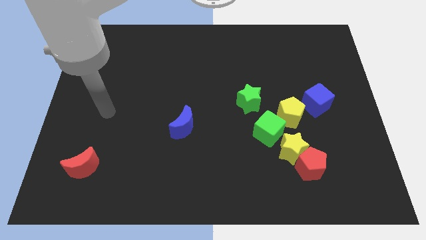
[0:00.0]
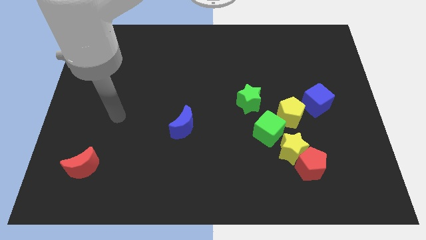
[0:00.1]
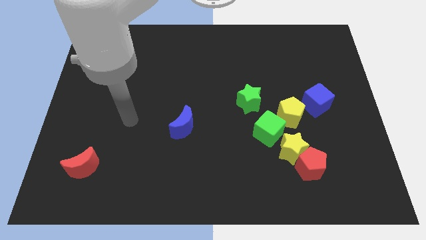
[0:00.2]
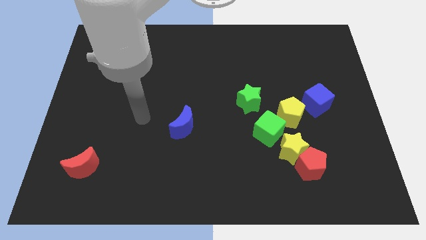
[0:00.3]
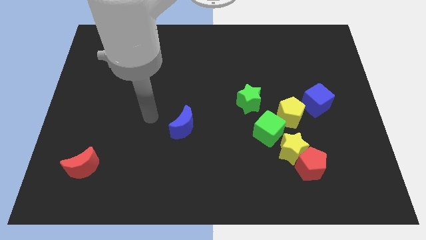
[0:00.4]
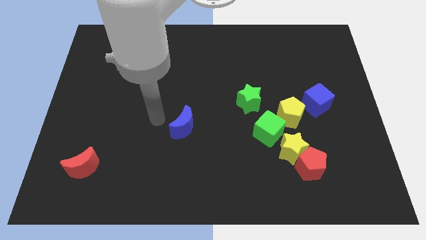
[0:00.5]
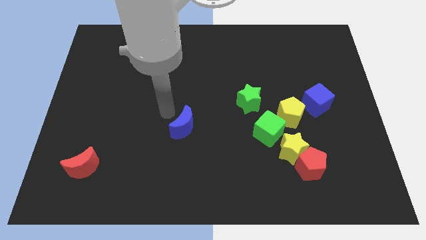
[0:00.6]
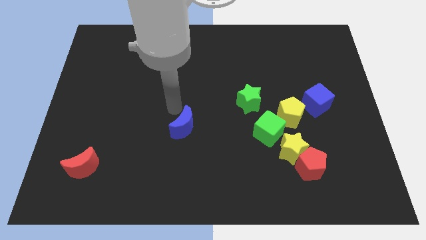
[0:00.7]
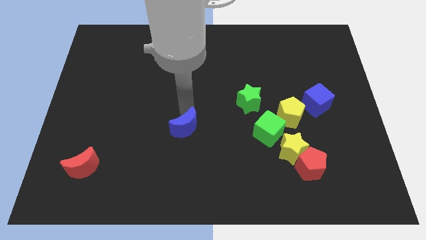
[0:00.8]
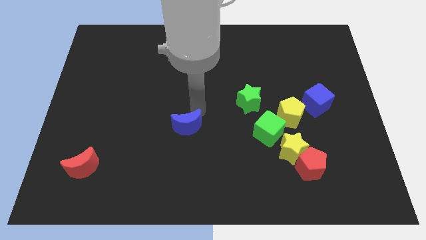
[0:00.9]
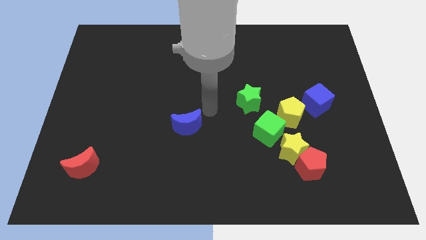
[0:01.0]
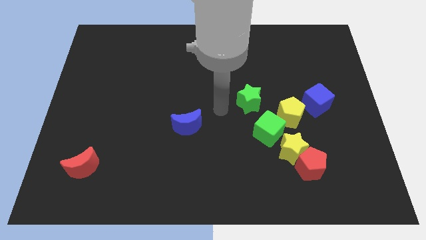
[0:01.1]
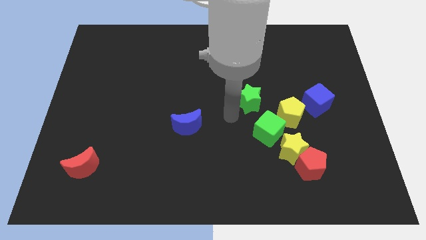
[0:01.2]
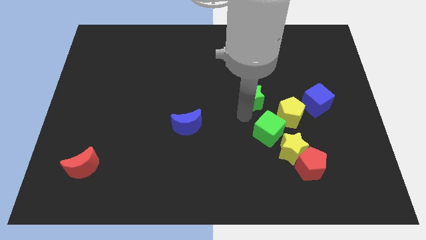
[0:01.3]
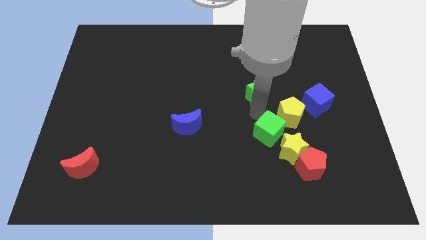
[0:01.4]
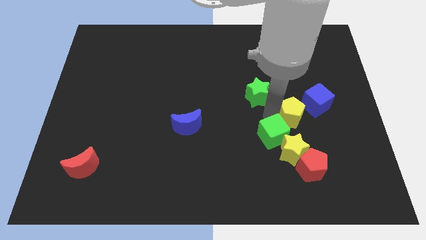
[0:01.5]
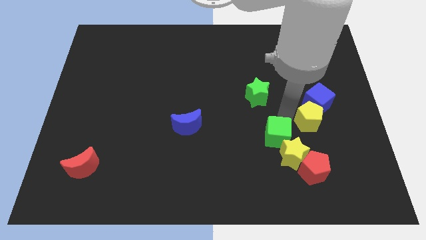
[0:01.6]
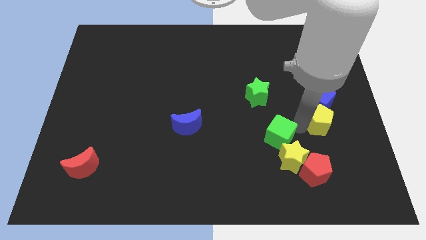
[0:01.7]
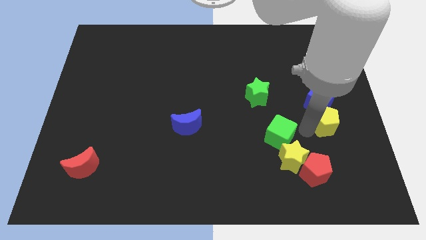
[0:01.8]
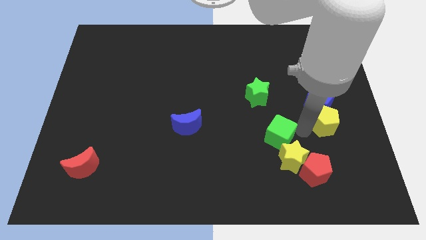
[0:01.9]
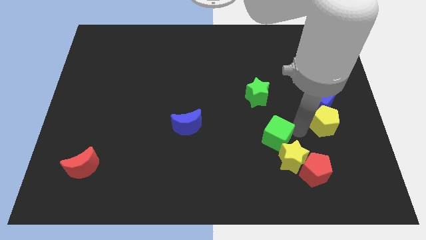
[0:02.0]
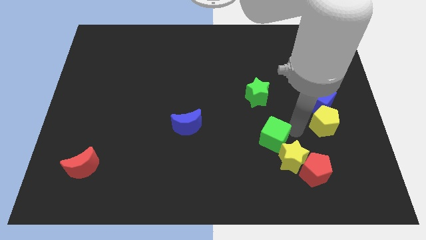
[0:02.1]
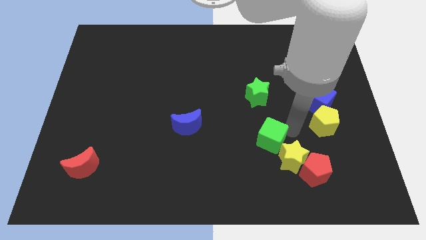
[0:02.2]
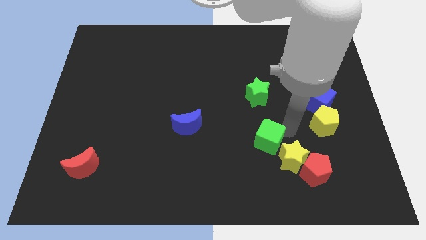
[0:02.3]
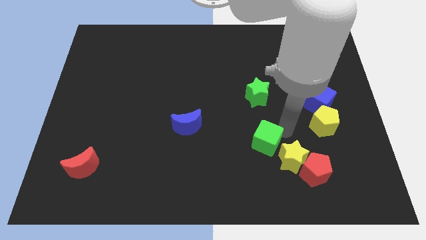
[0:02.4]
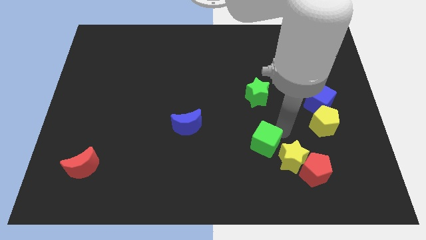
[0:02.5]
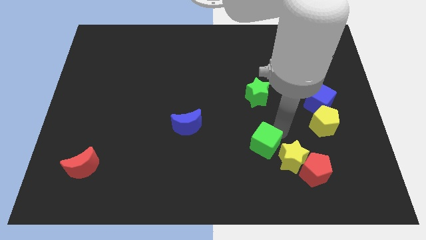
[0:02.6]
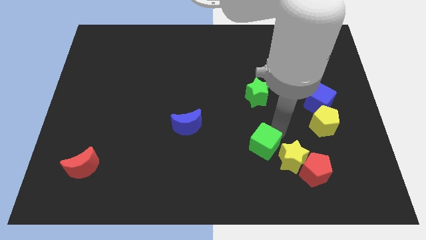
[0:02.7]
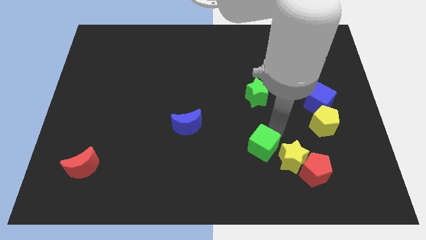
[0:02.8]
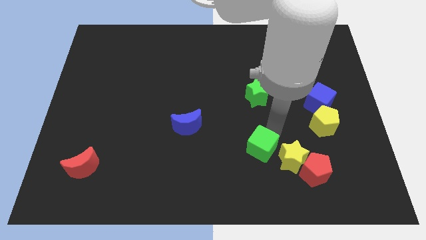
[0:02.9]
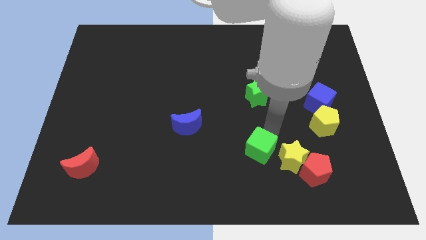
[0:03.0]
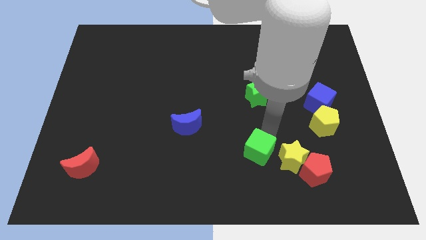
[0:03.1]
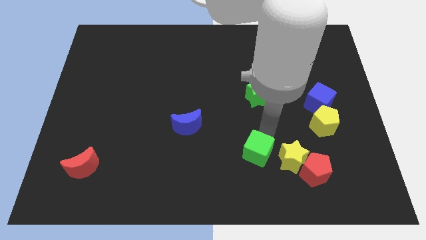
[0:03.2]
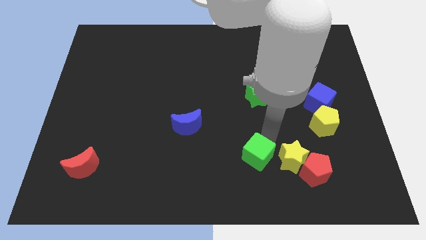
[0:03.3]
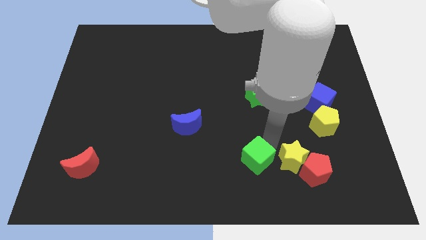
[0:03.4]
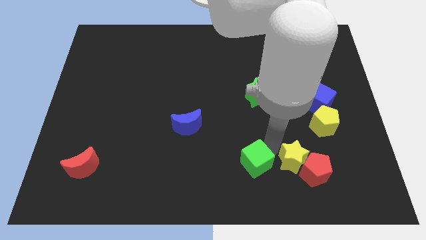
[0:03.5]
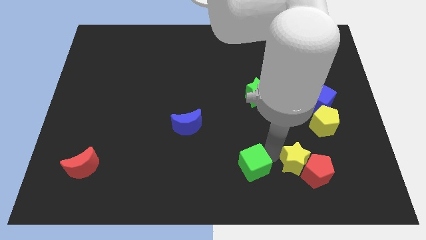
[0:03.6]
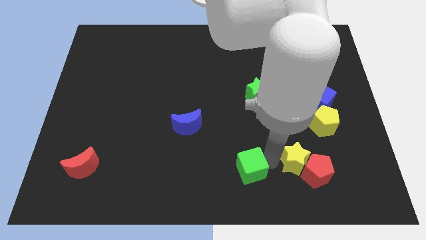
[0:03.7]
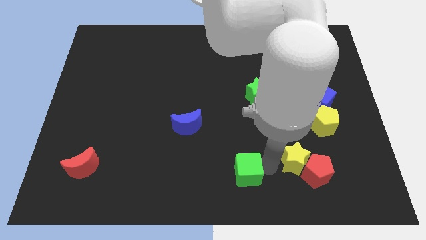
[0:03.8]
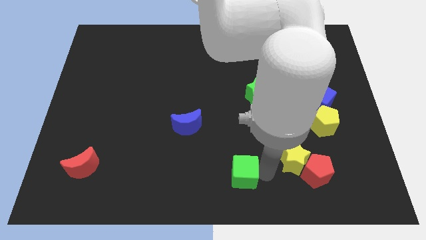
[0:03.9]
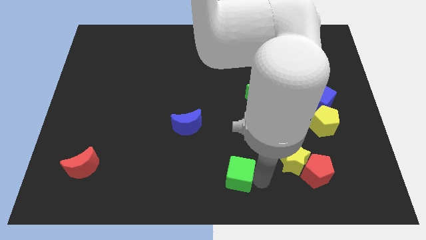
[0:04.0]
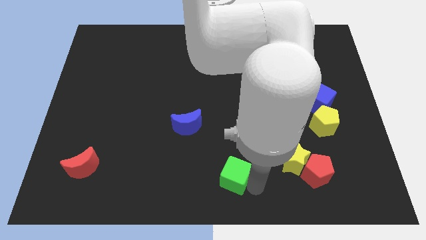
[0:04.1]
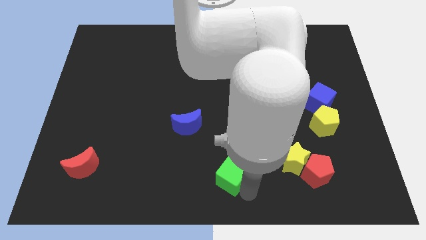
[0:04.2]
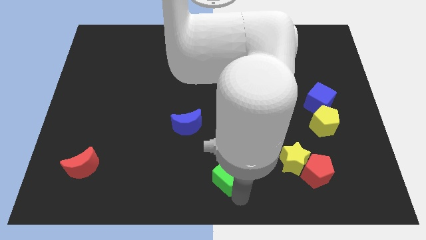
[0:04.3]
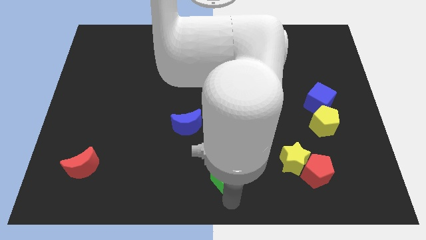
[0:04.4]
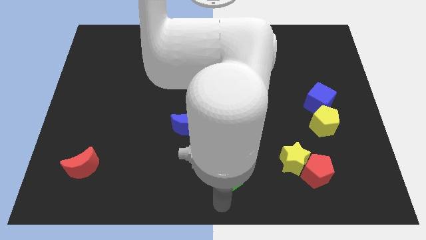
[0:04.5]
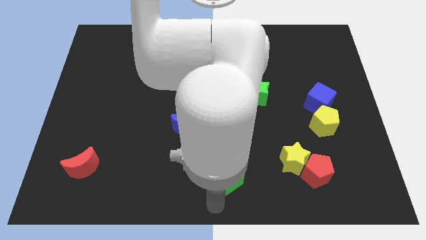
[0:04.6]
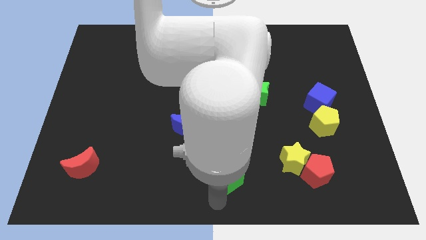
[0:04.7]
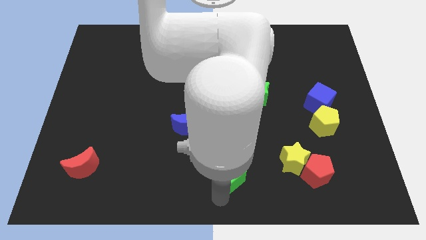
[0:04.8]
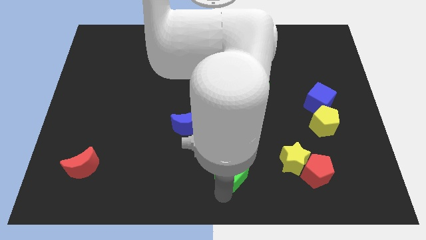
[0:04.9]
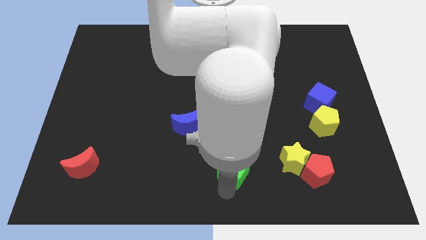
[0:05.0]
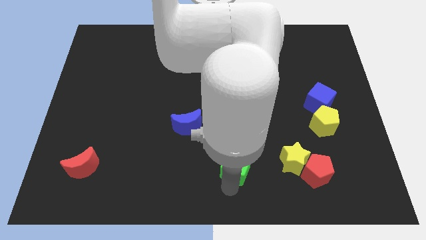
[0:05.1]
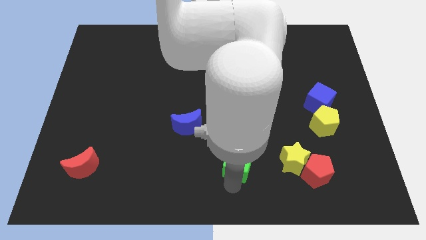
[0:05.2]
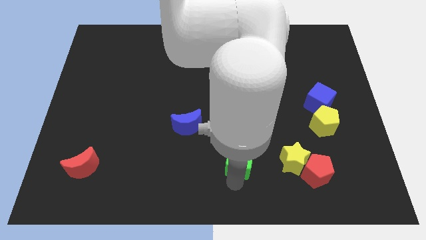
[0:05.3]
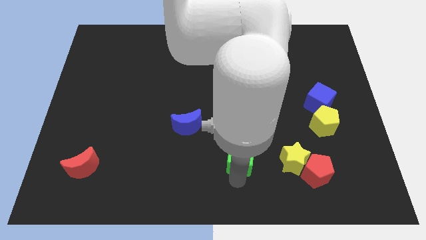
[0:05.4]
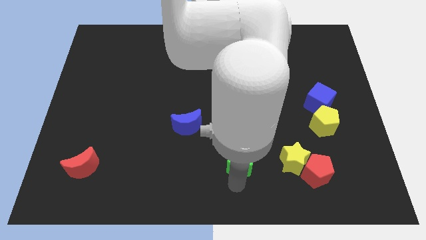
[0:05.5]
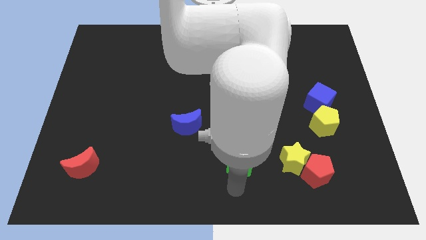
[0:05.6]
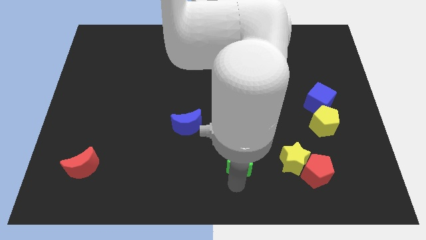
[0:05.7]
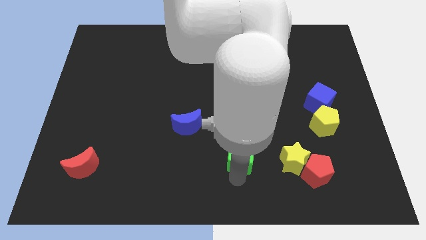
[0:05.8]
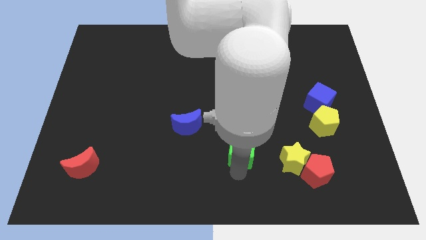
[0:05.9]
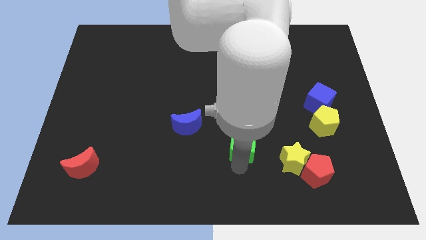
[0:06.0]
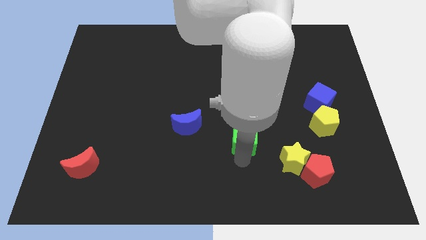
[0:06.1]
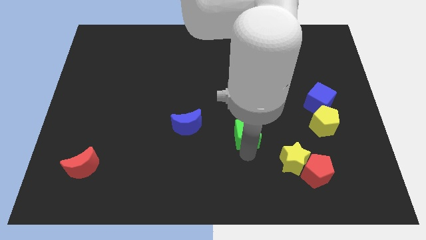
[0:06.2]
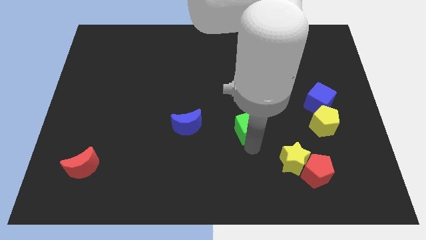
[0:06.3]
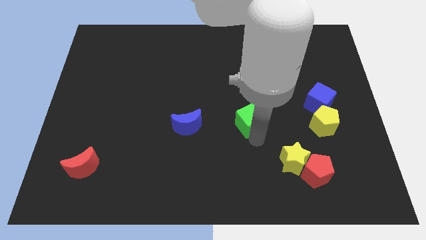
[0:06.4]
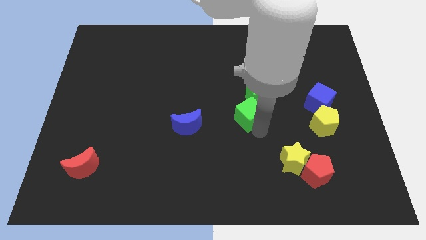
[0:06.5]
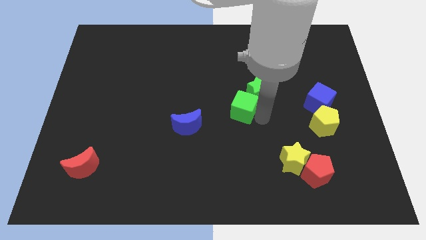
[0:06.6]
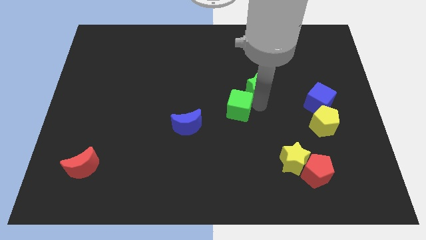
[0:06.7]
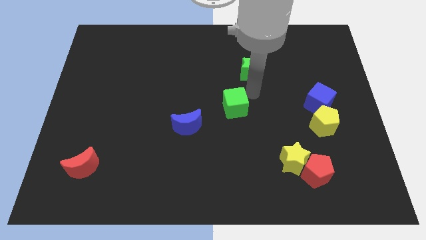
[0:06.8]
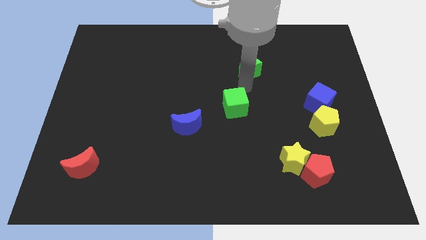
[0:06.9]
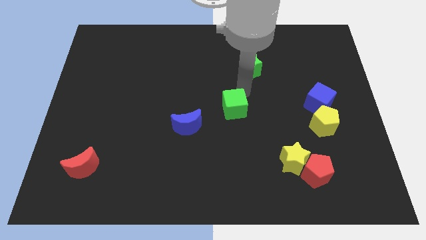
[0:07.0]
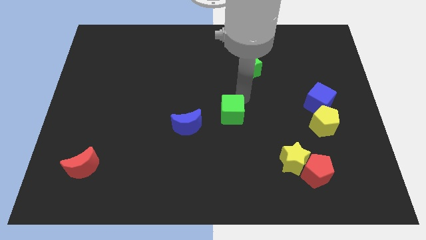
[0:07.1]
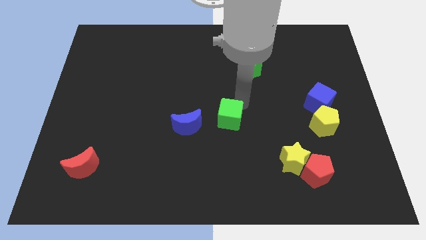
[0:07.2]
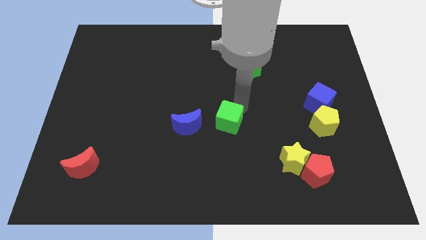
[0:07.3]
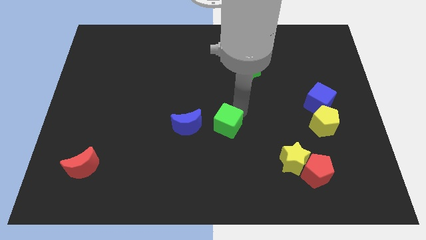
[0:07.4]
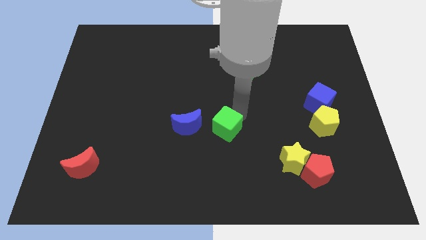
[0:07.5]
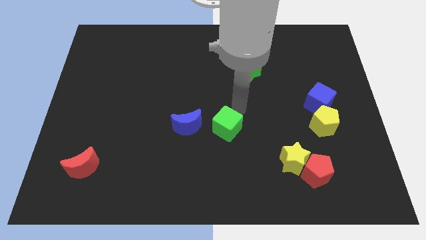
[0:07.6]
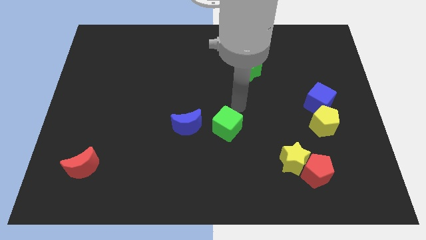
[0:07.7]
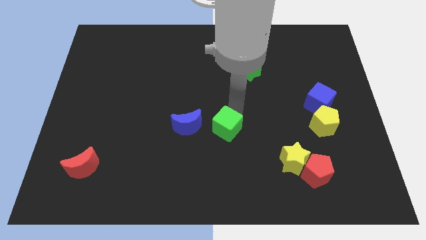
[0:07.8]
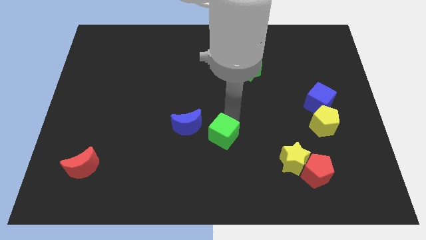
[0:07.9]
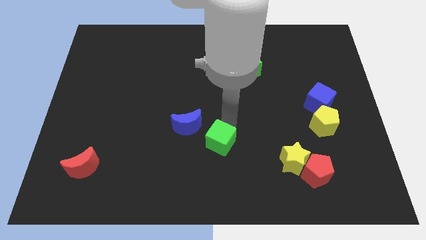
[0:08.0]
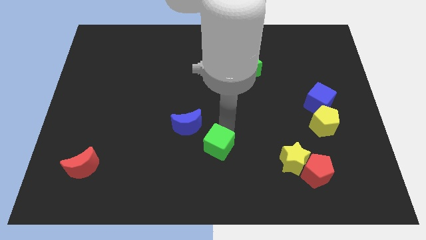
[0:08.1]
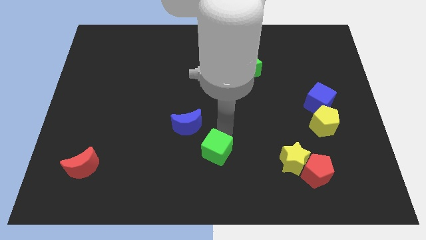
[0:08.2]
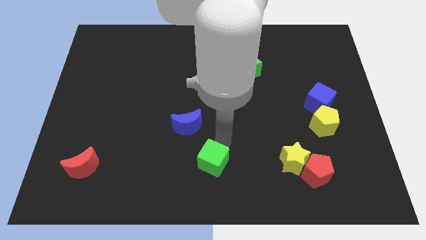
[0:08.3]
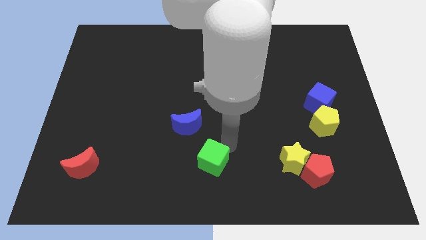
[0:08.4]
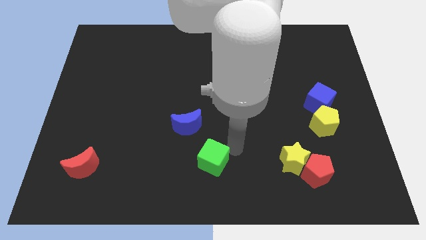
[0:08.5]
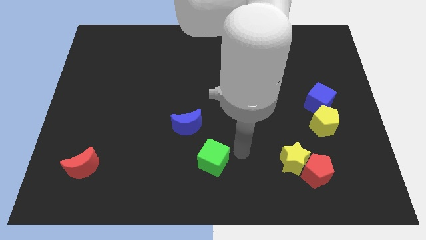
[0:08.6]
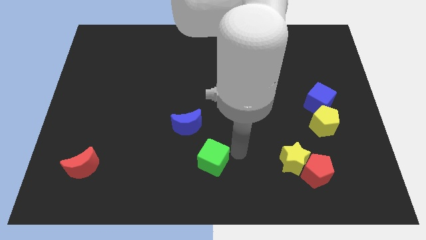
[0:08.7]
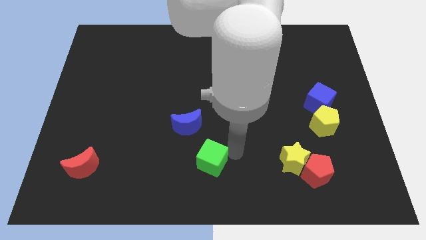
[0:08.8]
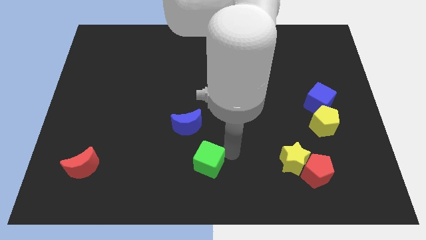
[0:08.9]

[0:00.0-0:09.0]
put the green cube to the bottom of the blue moon
